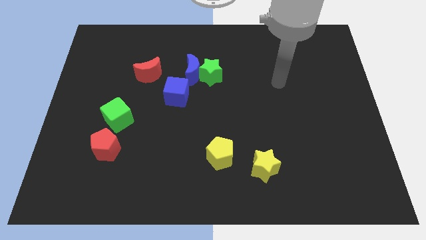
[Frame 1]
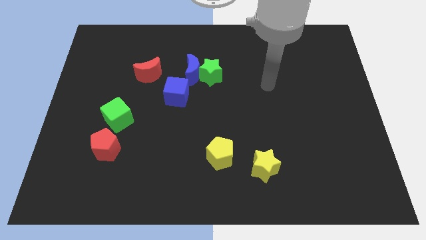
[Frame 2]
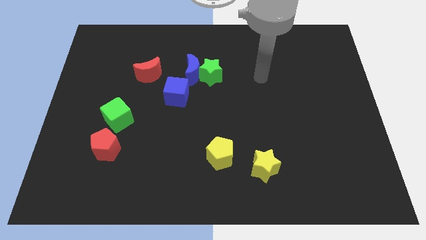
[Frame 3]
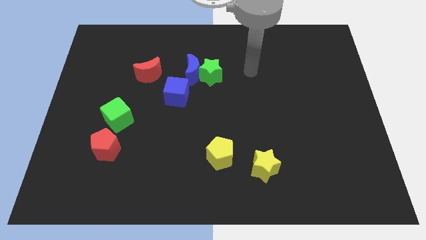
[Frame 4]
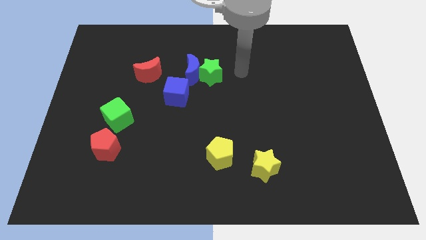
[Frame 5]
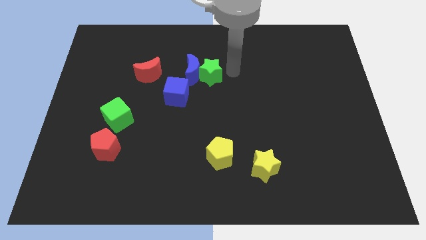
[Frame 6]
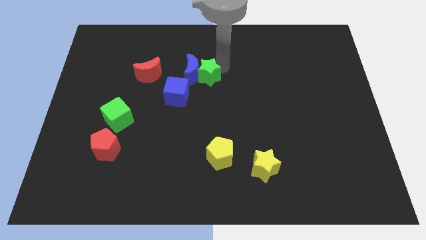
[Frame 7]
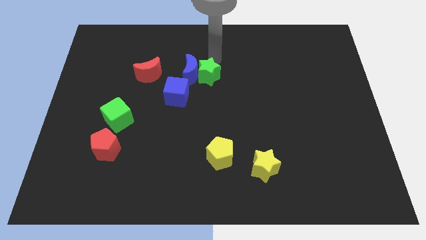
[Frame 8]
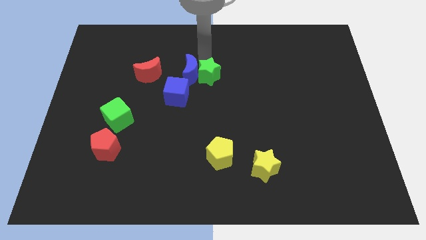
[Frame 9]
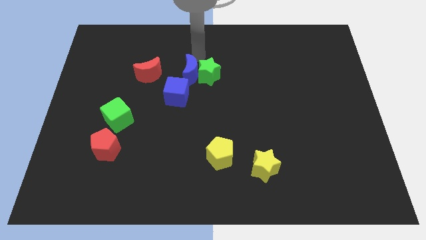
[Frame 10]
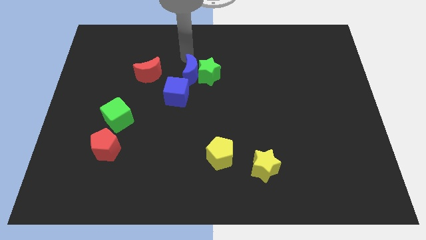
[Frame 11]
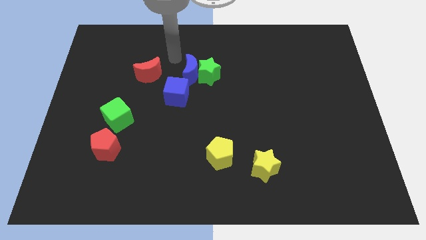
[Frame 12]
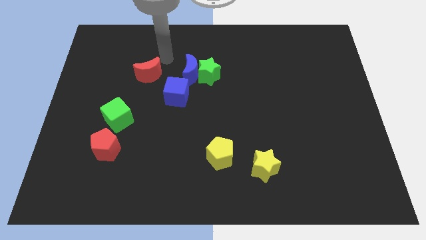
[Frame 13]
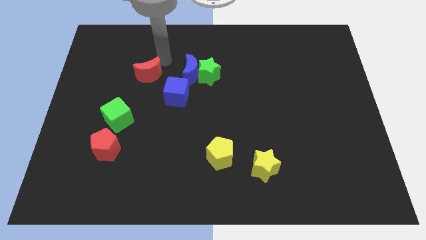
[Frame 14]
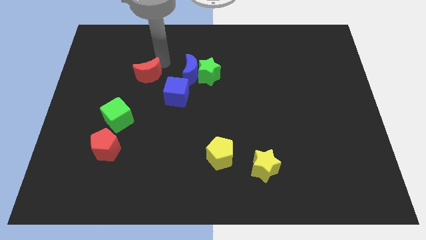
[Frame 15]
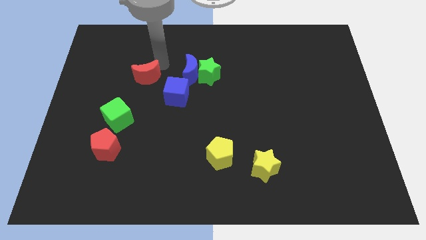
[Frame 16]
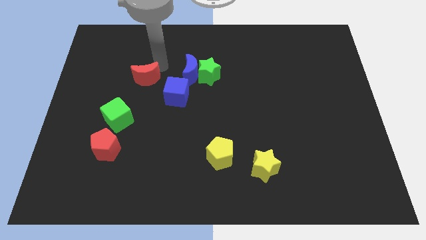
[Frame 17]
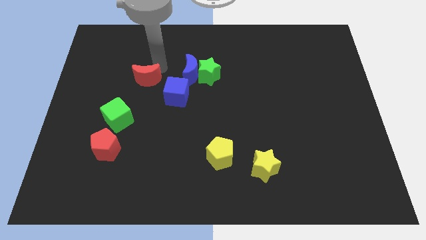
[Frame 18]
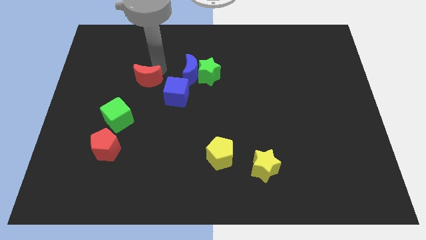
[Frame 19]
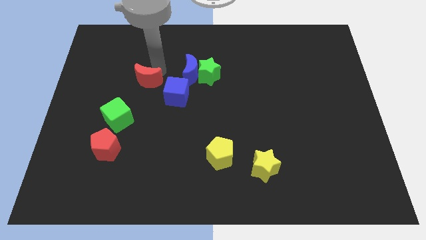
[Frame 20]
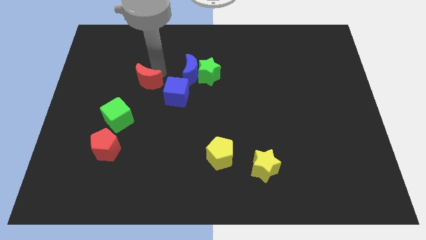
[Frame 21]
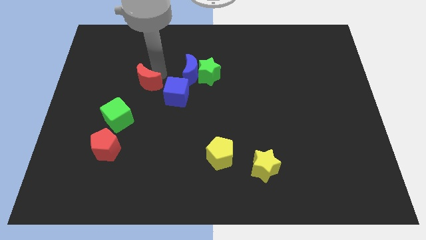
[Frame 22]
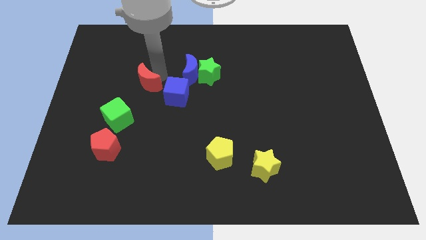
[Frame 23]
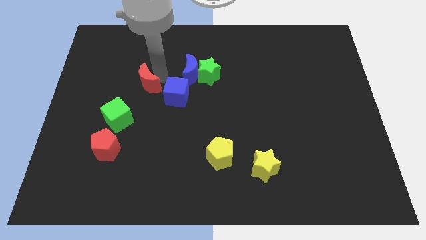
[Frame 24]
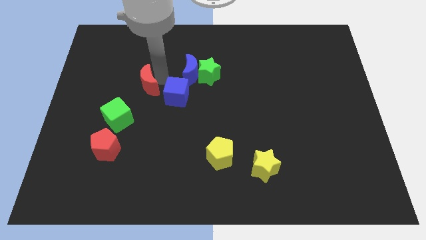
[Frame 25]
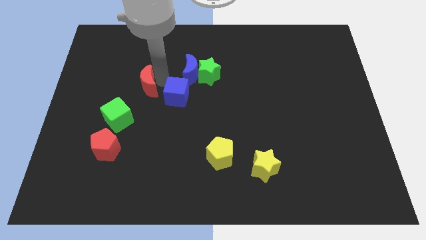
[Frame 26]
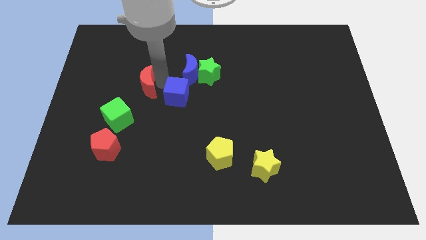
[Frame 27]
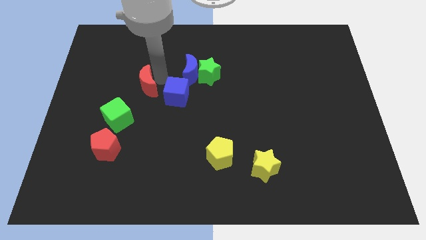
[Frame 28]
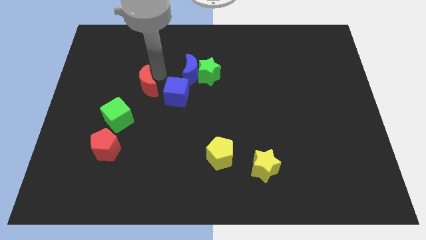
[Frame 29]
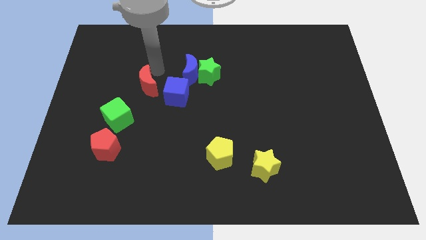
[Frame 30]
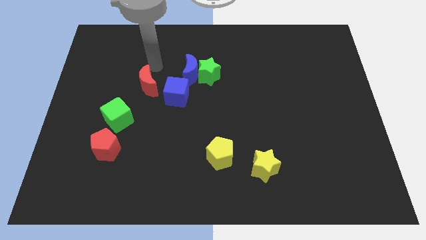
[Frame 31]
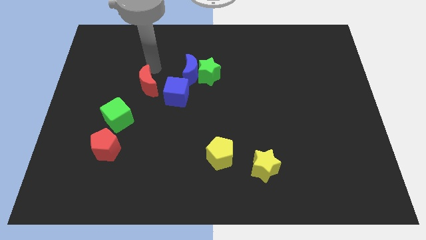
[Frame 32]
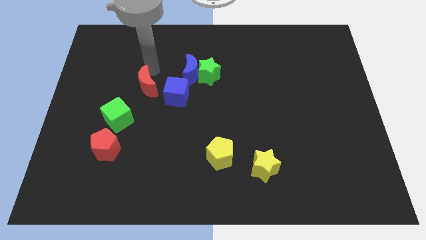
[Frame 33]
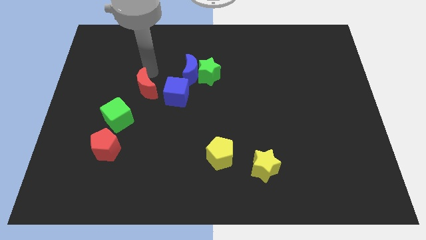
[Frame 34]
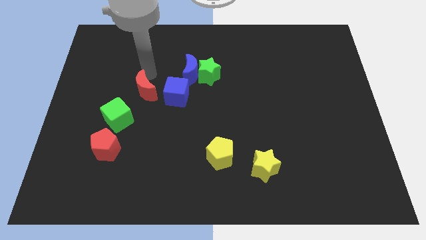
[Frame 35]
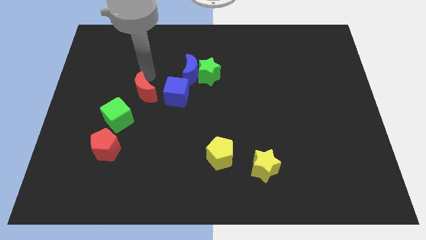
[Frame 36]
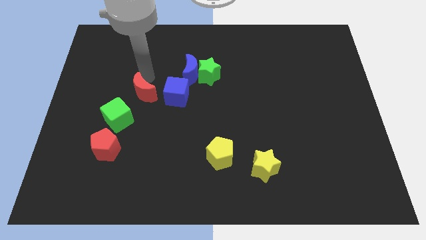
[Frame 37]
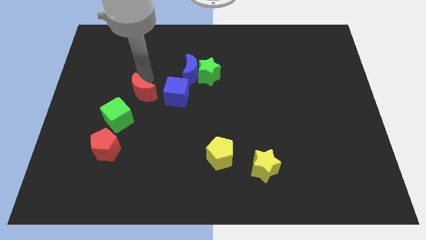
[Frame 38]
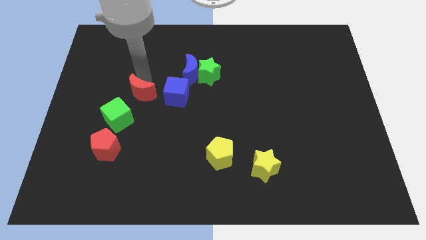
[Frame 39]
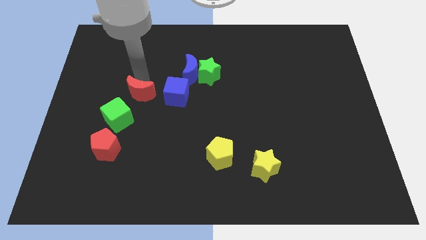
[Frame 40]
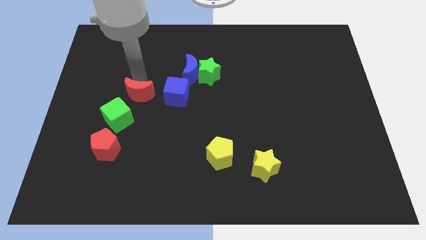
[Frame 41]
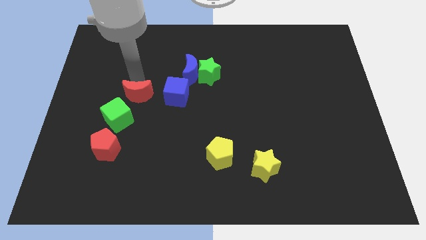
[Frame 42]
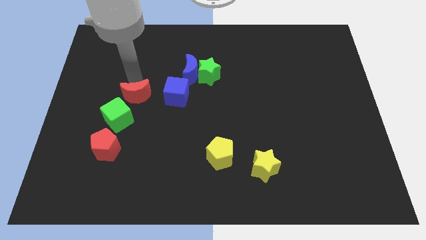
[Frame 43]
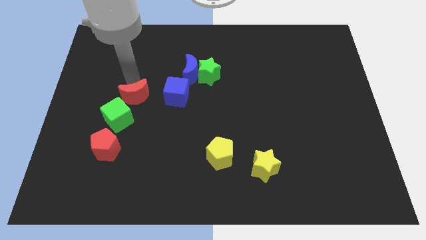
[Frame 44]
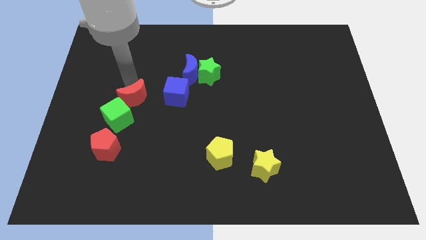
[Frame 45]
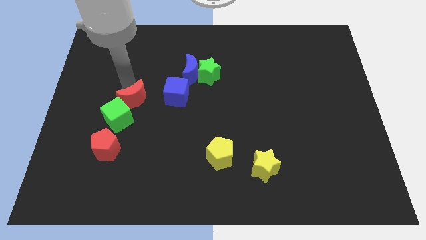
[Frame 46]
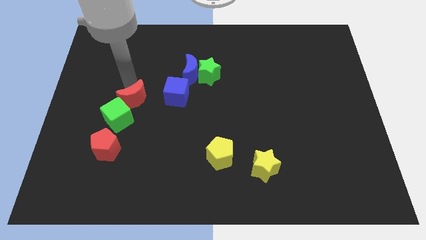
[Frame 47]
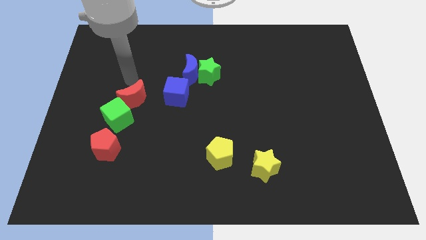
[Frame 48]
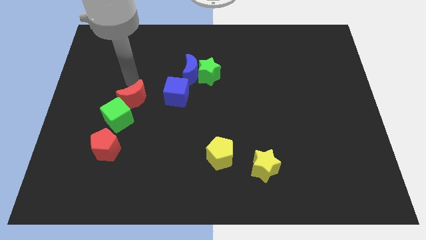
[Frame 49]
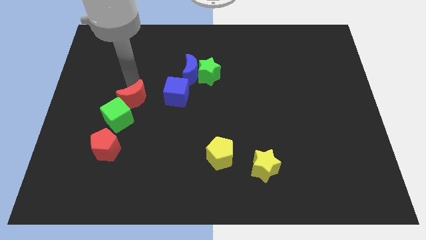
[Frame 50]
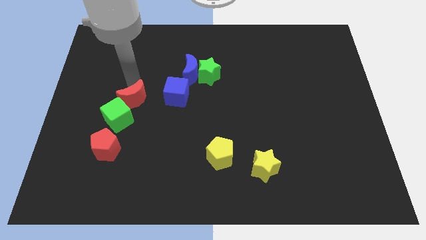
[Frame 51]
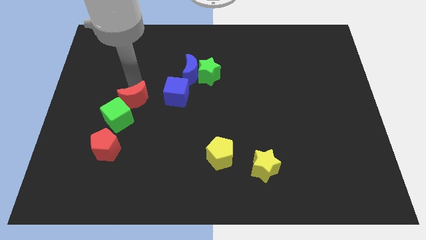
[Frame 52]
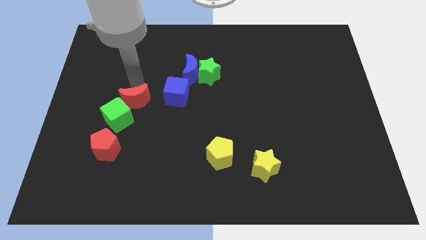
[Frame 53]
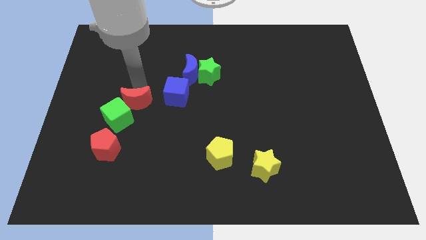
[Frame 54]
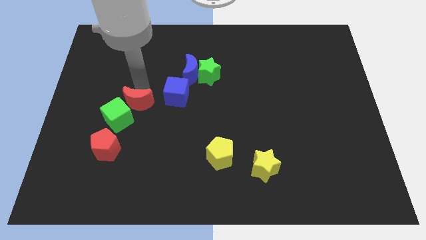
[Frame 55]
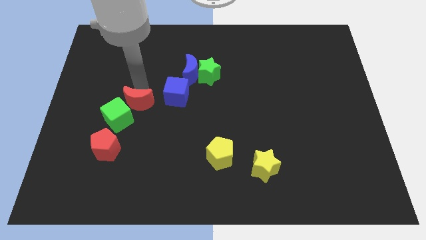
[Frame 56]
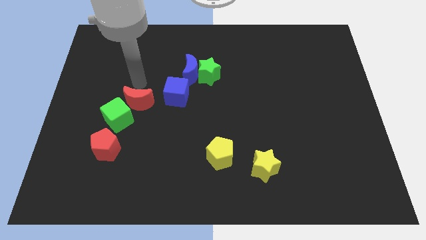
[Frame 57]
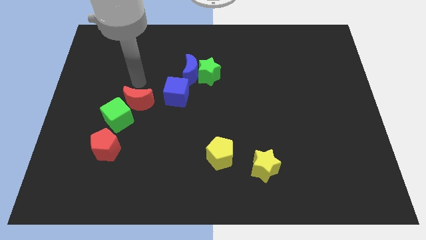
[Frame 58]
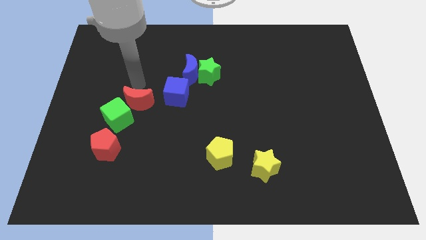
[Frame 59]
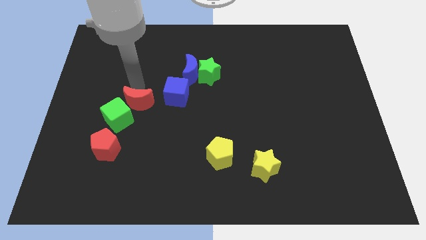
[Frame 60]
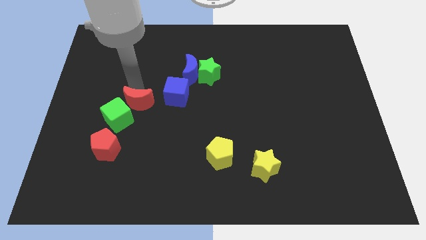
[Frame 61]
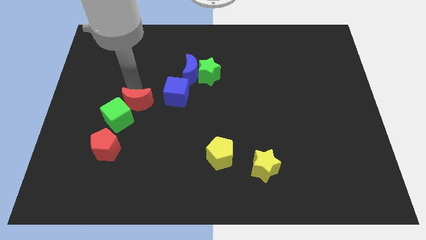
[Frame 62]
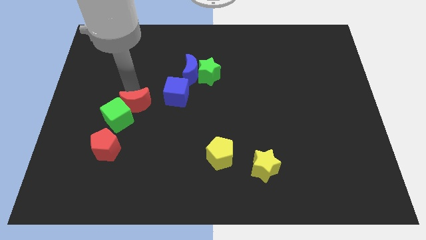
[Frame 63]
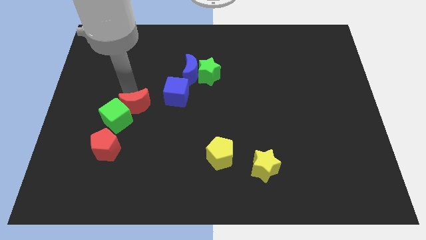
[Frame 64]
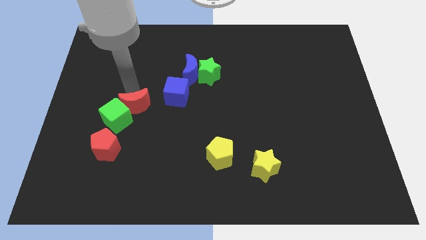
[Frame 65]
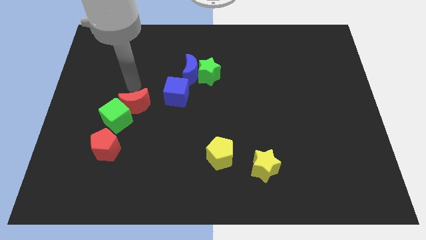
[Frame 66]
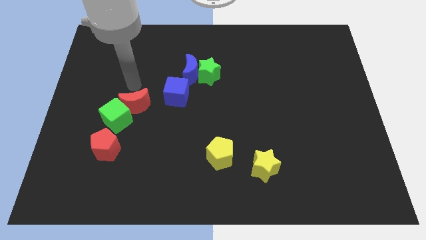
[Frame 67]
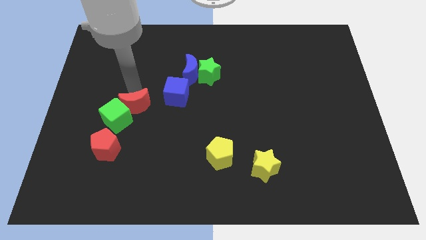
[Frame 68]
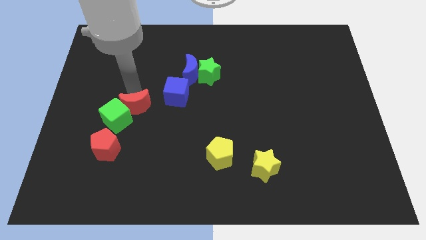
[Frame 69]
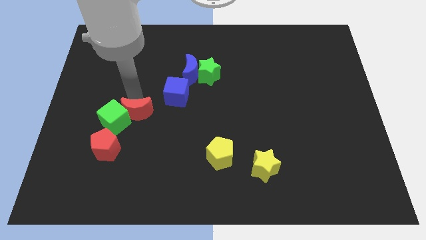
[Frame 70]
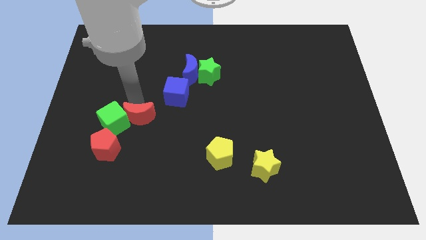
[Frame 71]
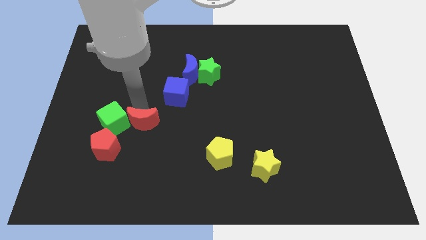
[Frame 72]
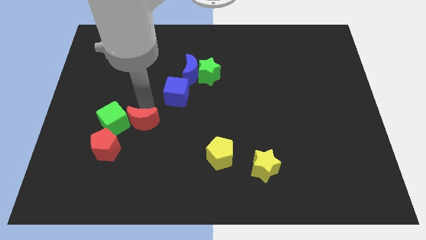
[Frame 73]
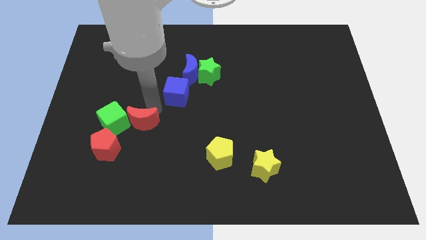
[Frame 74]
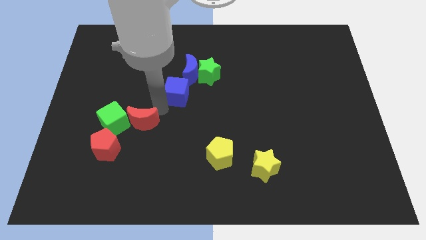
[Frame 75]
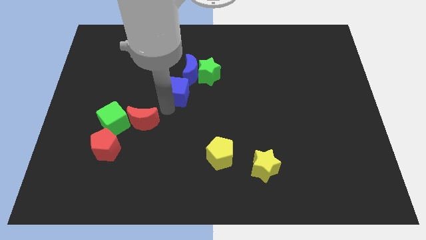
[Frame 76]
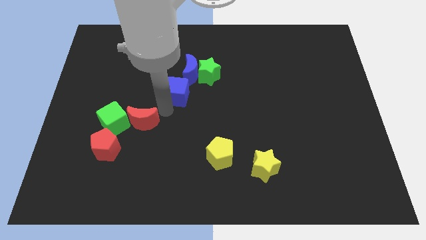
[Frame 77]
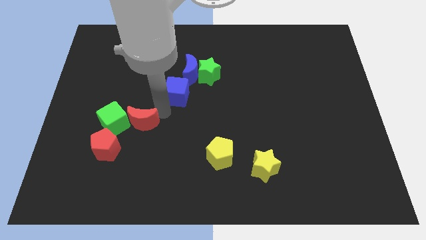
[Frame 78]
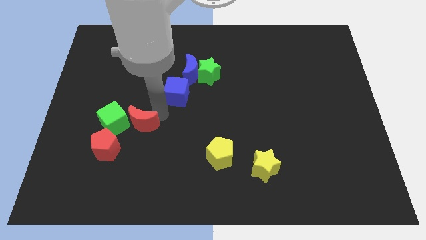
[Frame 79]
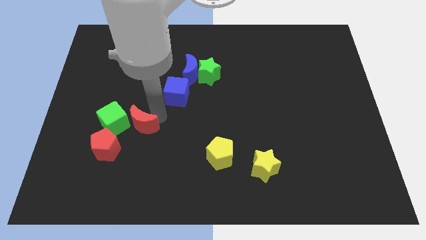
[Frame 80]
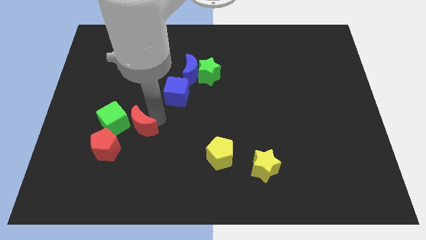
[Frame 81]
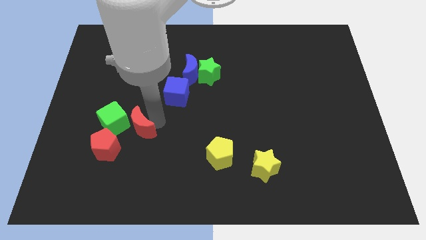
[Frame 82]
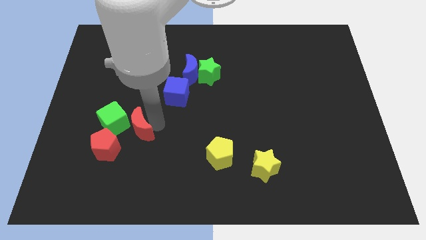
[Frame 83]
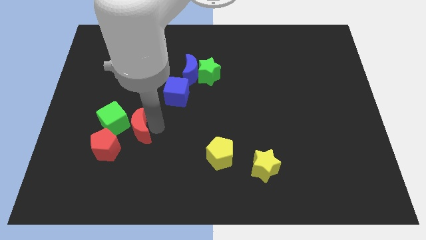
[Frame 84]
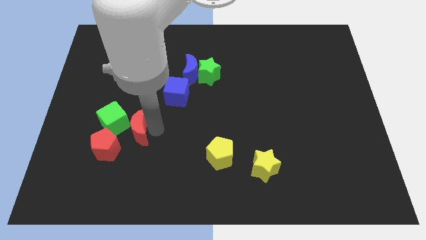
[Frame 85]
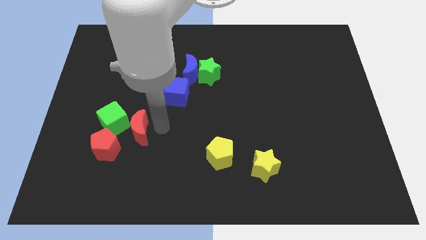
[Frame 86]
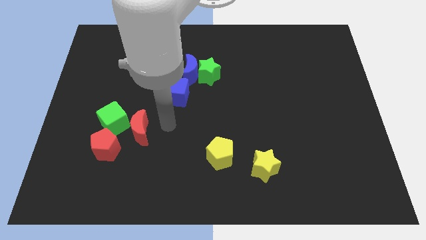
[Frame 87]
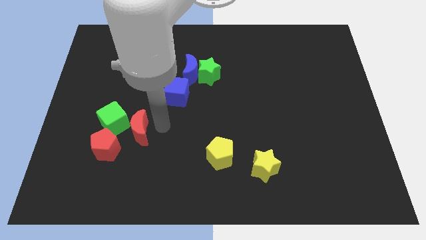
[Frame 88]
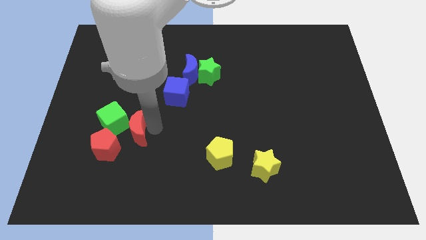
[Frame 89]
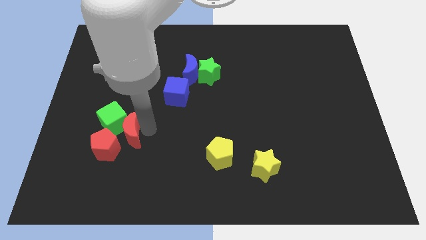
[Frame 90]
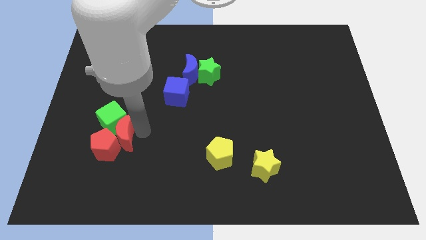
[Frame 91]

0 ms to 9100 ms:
put the red moon to the red pentagon
